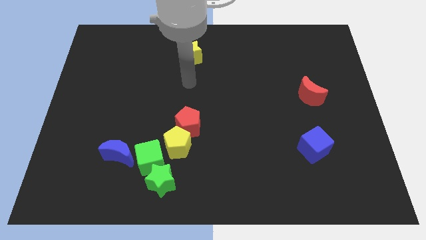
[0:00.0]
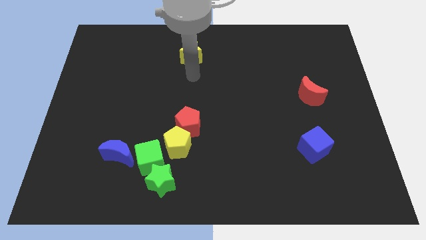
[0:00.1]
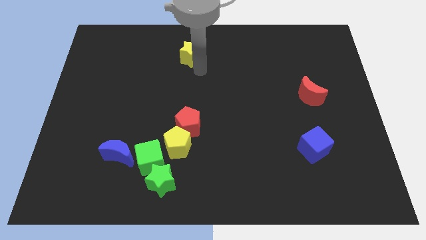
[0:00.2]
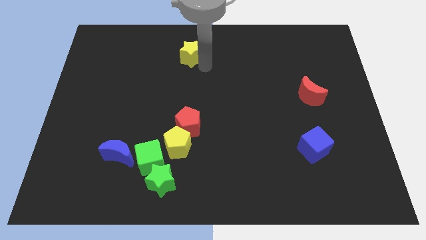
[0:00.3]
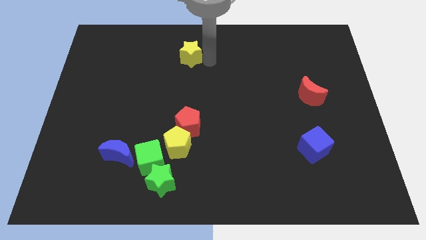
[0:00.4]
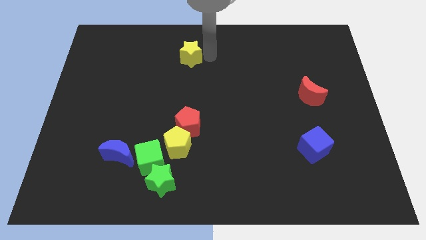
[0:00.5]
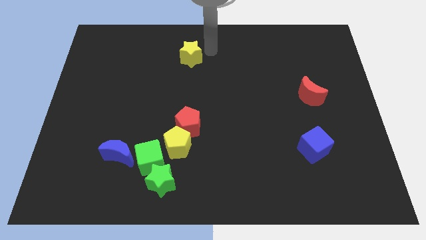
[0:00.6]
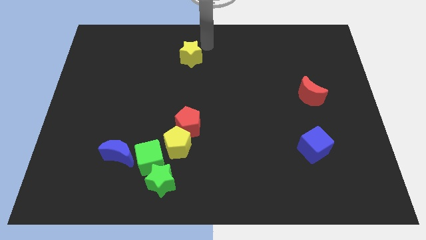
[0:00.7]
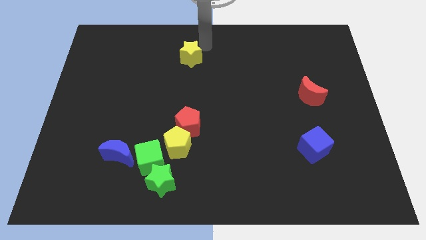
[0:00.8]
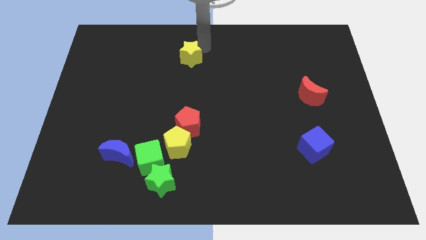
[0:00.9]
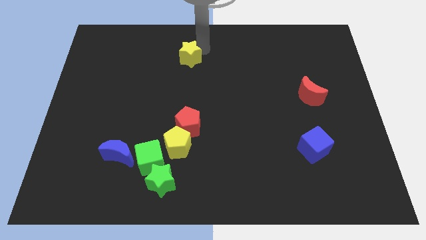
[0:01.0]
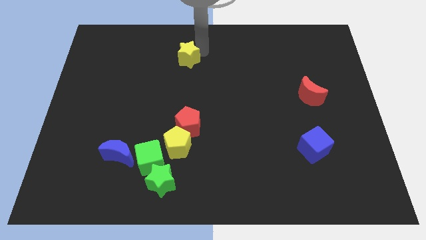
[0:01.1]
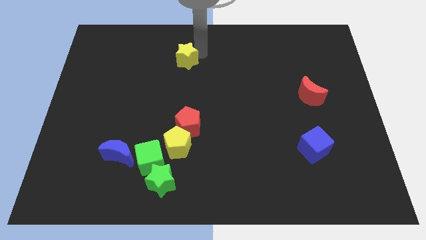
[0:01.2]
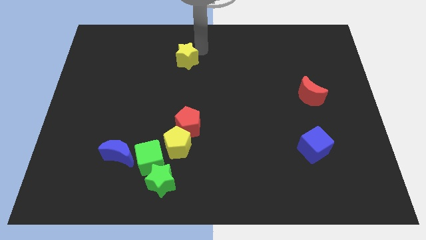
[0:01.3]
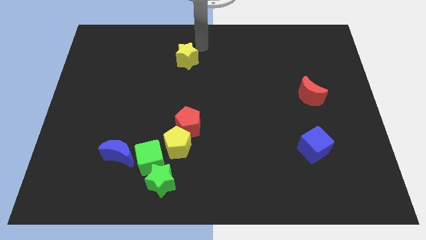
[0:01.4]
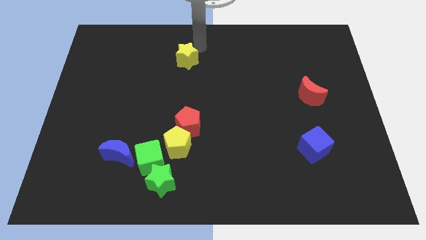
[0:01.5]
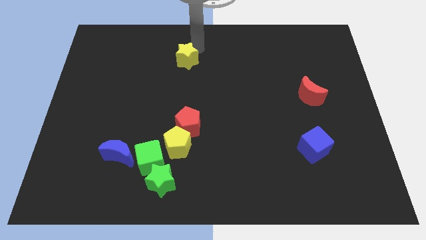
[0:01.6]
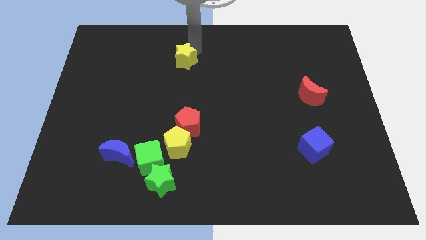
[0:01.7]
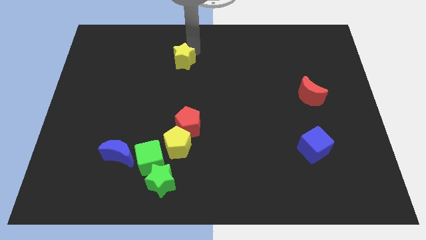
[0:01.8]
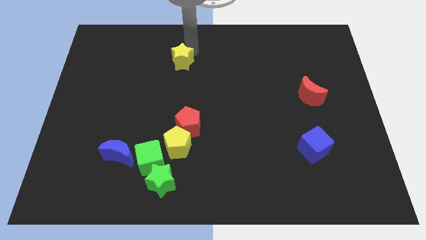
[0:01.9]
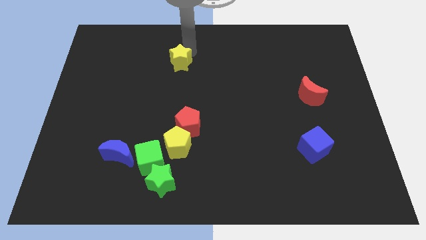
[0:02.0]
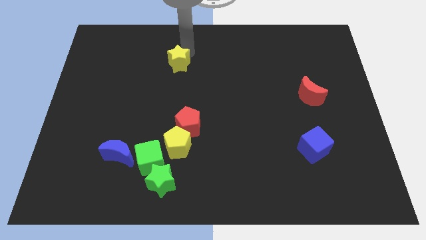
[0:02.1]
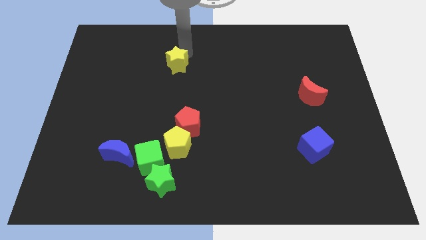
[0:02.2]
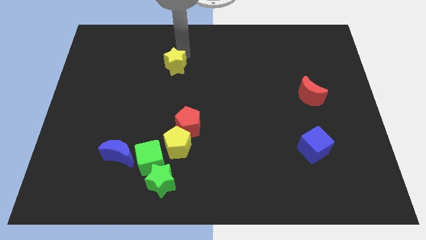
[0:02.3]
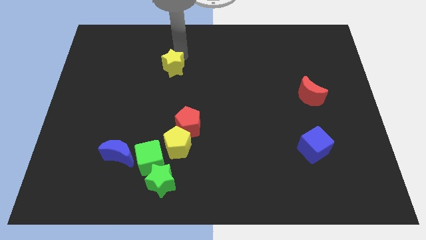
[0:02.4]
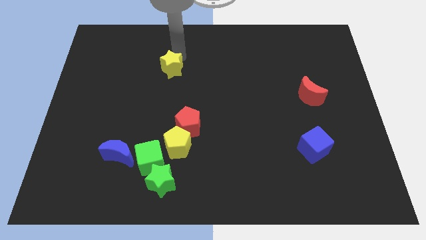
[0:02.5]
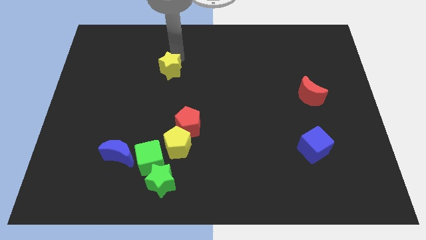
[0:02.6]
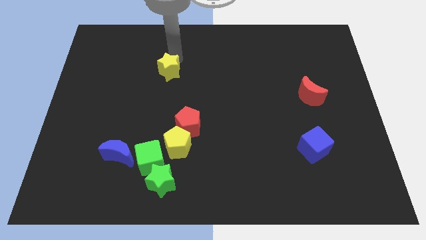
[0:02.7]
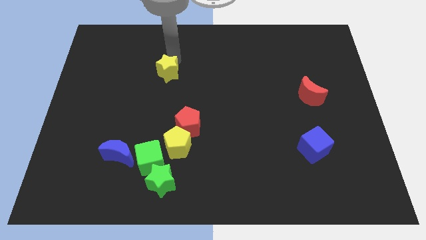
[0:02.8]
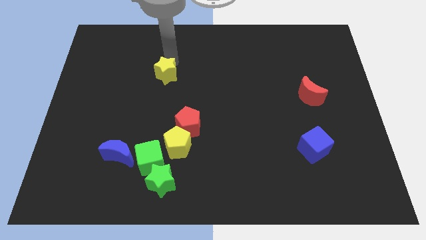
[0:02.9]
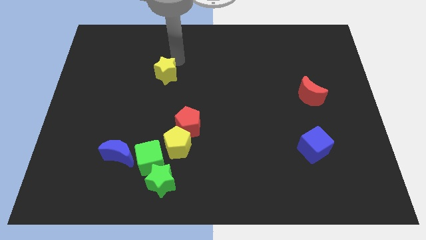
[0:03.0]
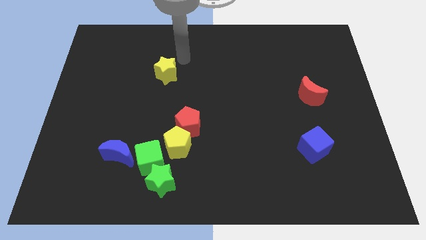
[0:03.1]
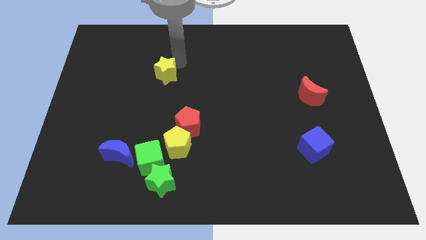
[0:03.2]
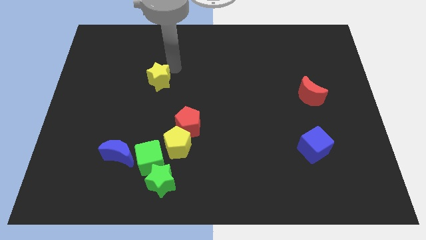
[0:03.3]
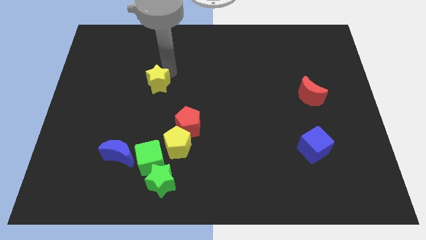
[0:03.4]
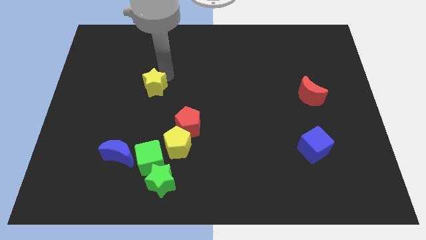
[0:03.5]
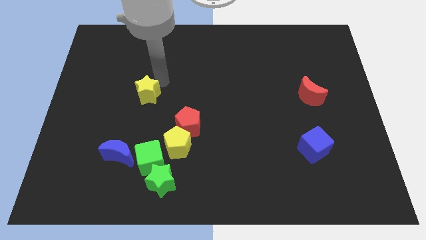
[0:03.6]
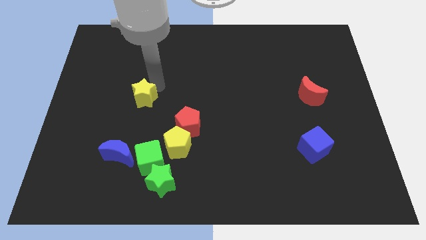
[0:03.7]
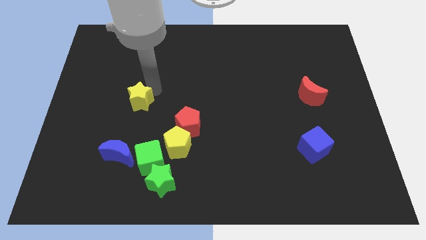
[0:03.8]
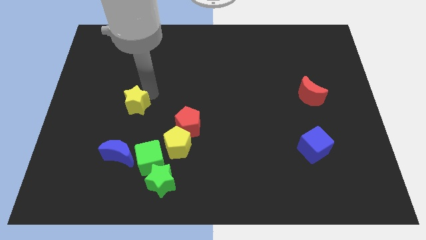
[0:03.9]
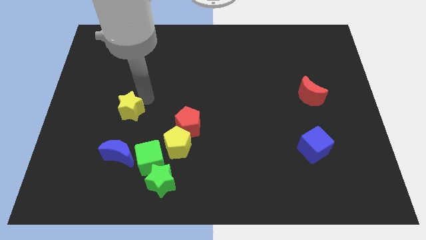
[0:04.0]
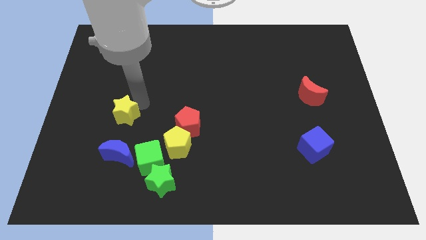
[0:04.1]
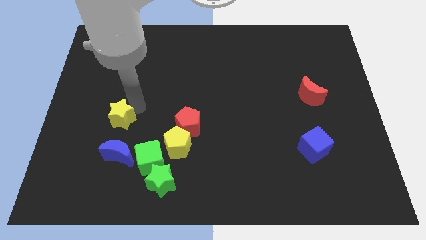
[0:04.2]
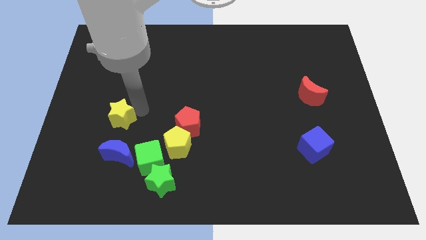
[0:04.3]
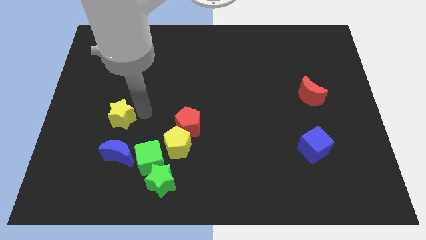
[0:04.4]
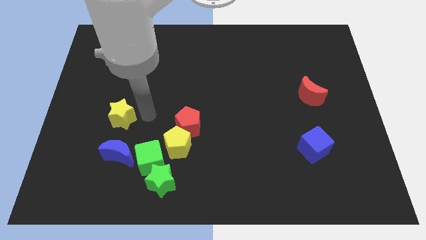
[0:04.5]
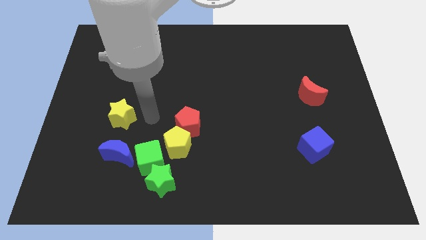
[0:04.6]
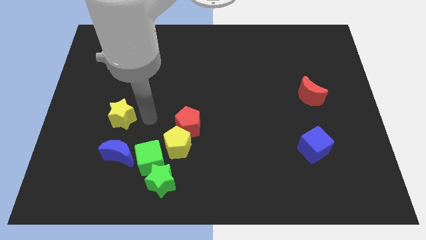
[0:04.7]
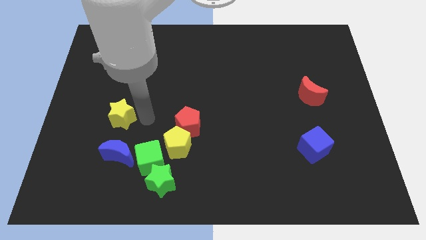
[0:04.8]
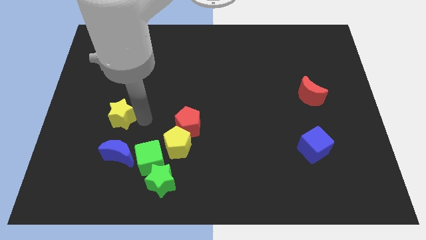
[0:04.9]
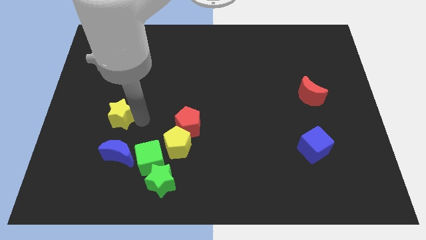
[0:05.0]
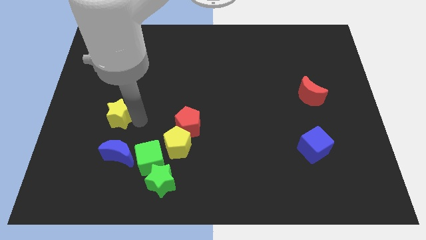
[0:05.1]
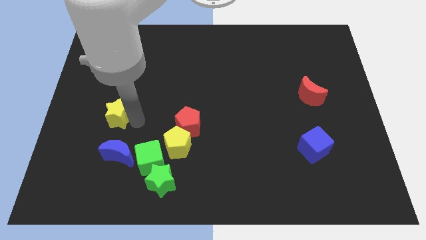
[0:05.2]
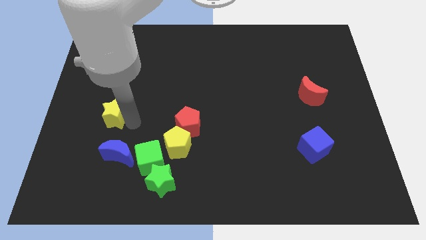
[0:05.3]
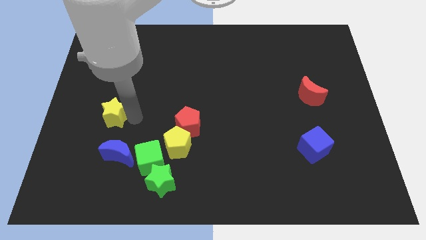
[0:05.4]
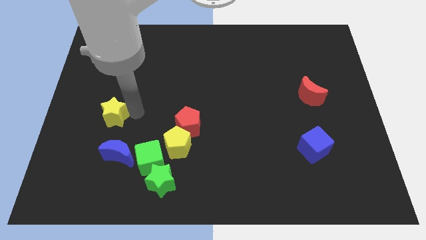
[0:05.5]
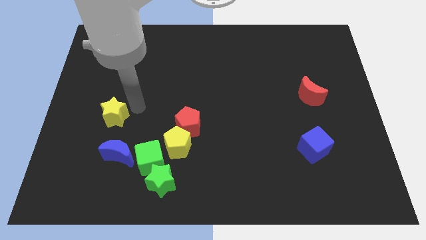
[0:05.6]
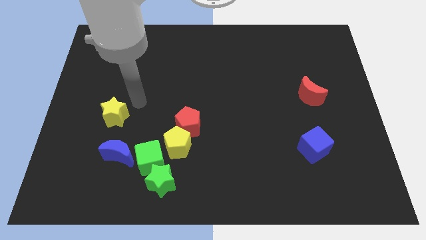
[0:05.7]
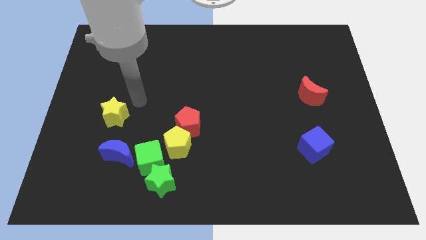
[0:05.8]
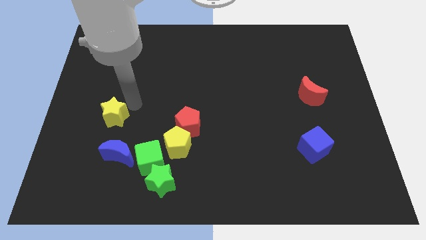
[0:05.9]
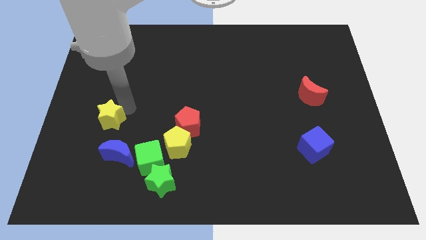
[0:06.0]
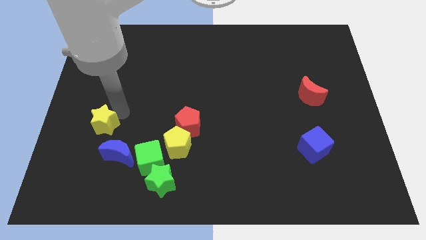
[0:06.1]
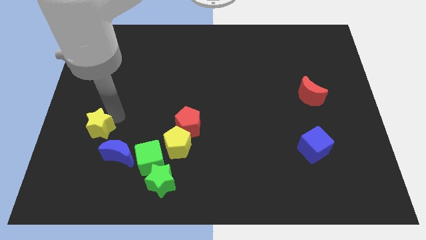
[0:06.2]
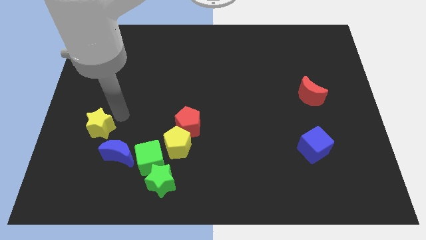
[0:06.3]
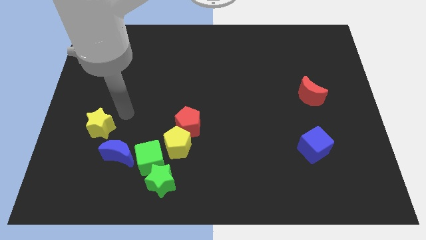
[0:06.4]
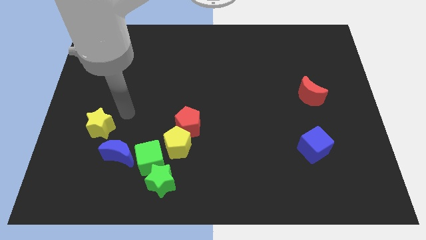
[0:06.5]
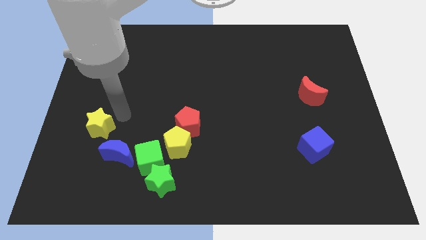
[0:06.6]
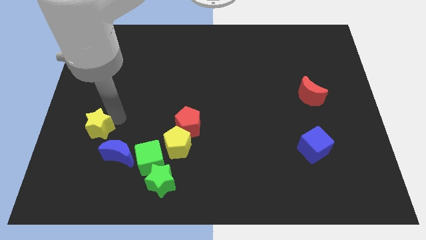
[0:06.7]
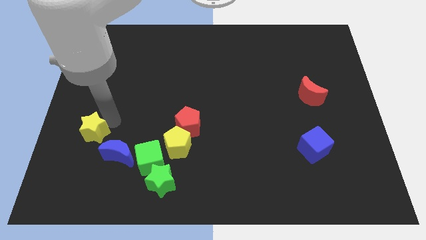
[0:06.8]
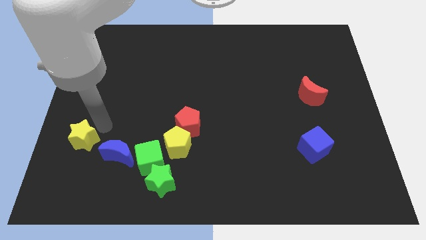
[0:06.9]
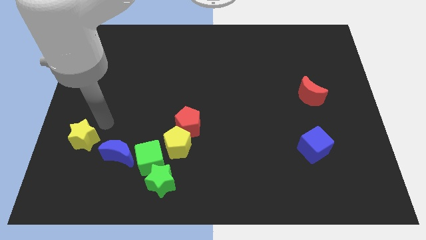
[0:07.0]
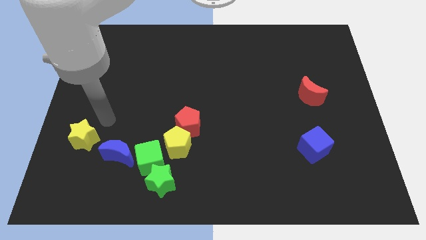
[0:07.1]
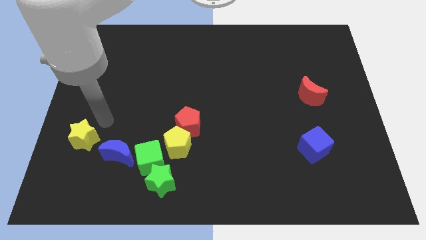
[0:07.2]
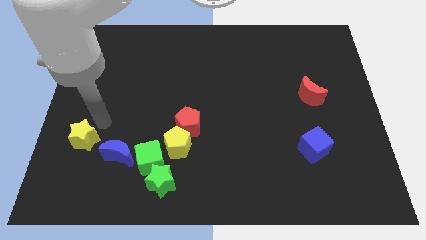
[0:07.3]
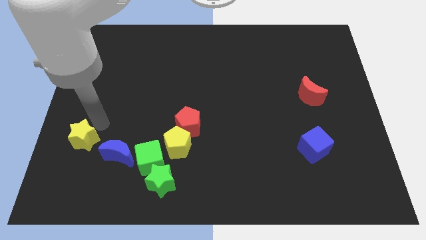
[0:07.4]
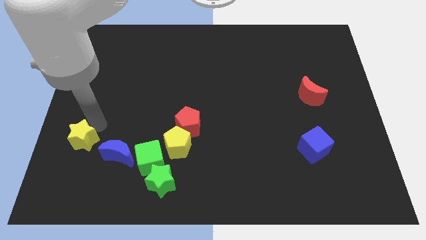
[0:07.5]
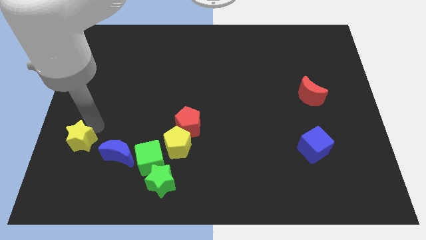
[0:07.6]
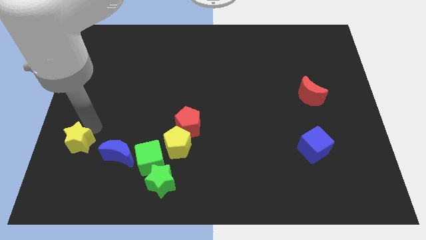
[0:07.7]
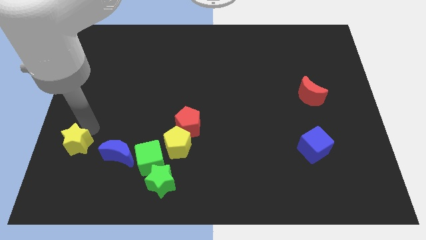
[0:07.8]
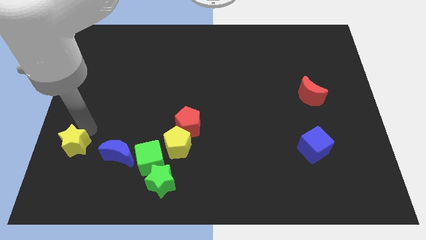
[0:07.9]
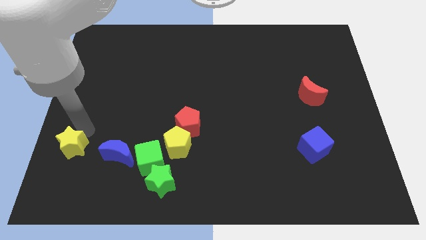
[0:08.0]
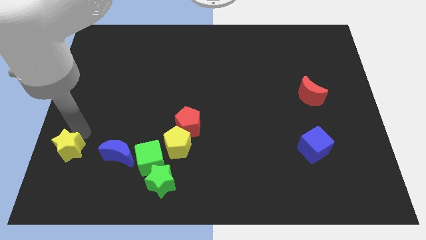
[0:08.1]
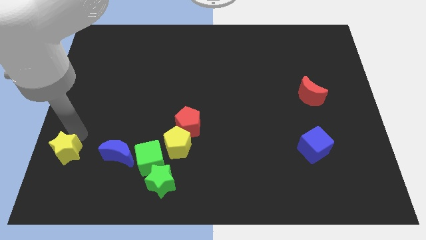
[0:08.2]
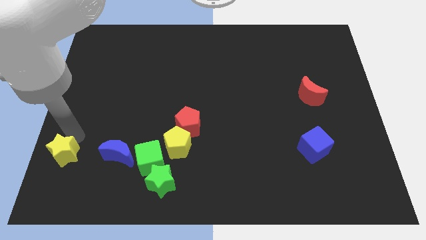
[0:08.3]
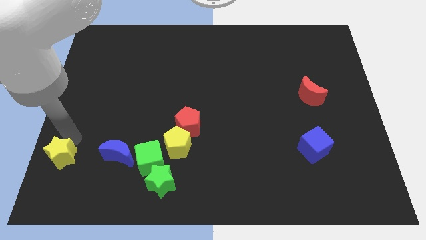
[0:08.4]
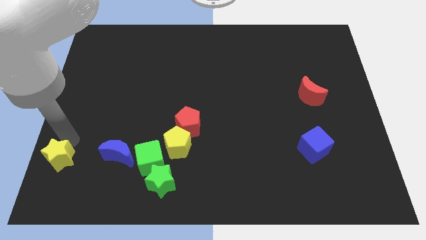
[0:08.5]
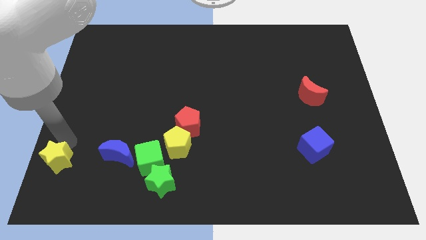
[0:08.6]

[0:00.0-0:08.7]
slide the yellow star to the bottom left corner
